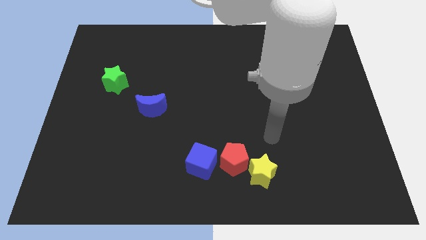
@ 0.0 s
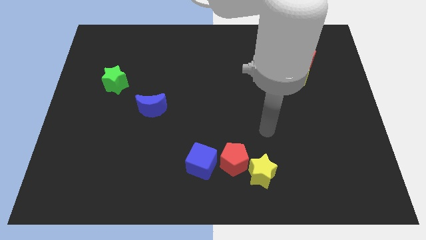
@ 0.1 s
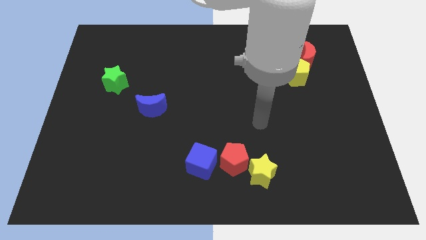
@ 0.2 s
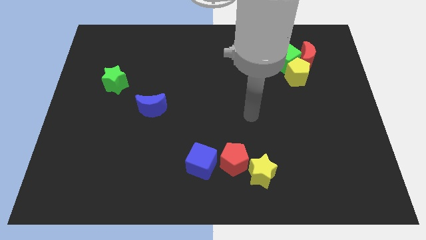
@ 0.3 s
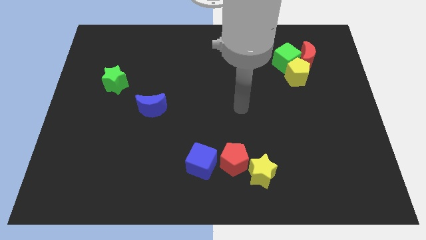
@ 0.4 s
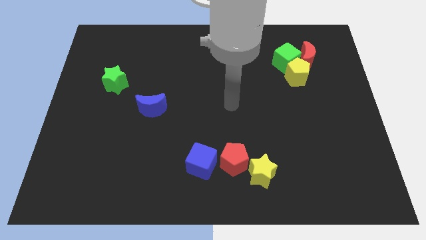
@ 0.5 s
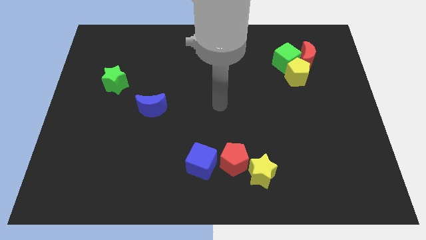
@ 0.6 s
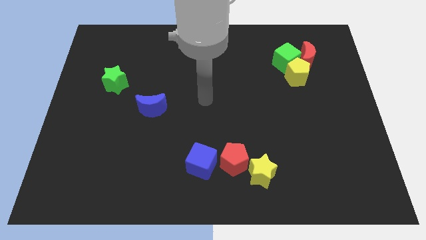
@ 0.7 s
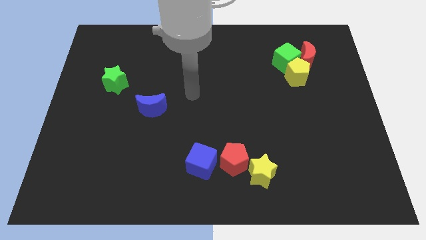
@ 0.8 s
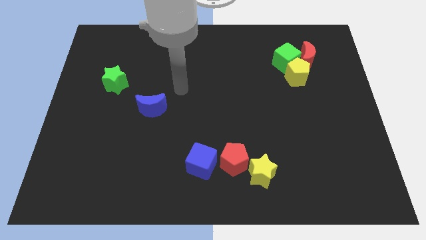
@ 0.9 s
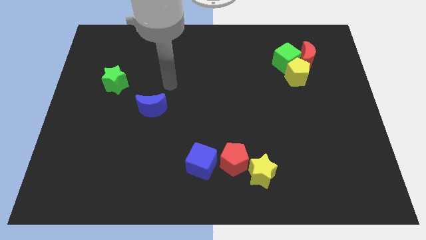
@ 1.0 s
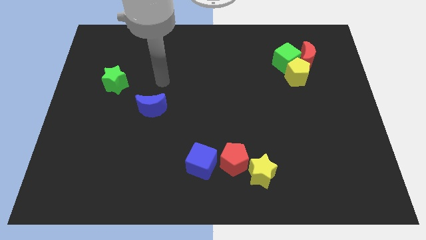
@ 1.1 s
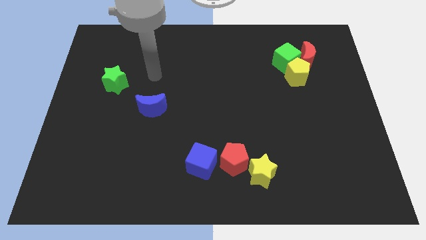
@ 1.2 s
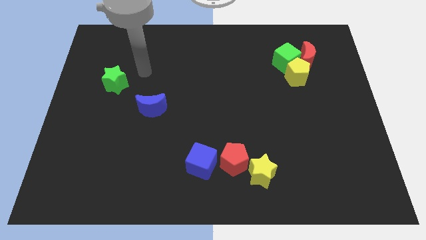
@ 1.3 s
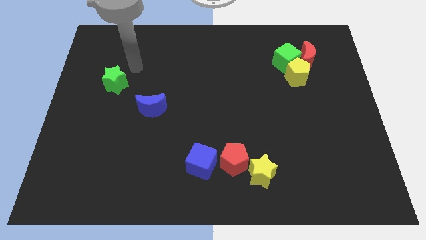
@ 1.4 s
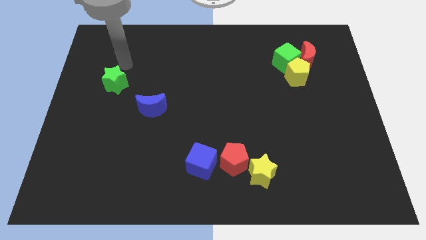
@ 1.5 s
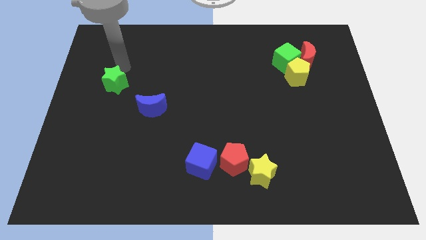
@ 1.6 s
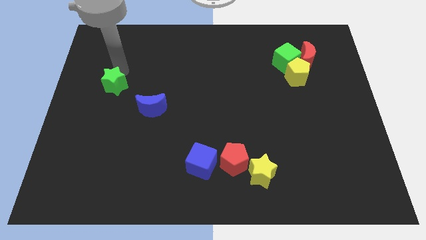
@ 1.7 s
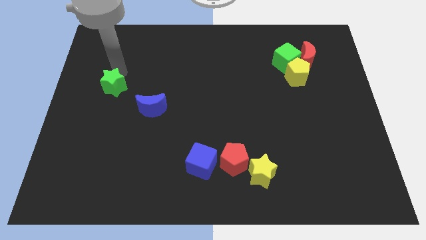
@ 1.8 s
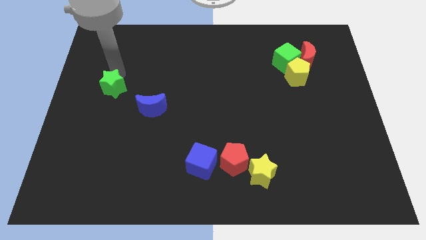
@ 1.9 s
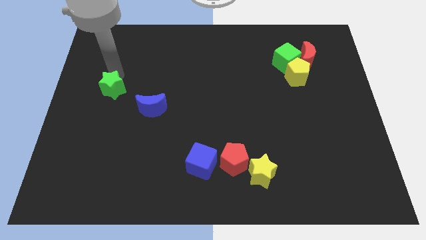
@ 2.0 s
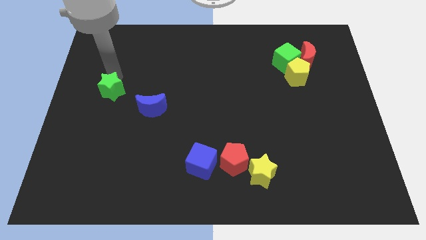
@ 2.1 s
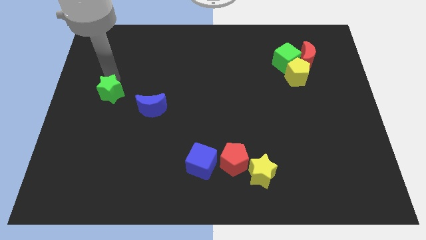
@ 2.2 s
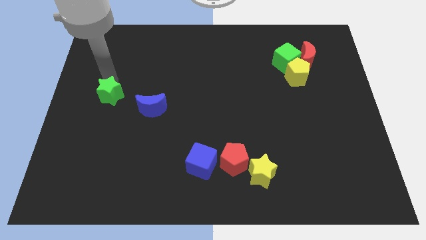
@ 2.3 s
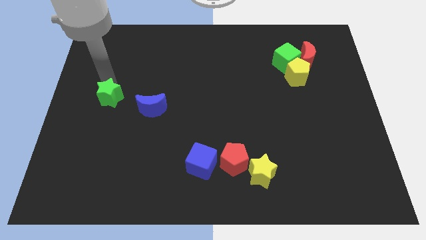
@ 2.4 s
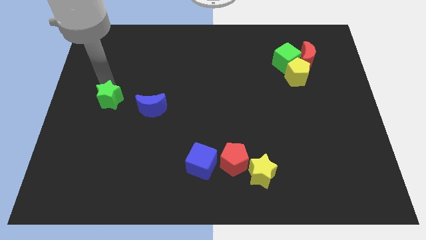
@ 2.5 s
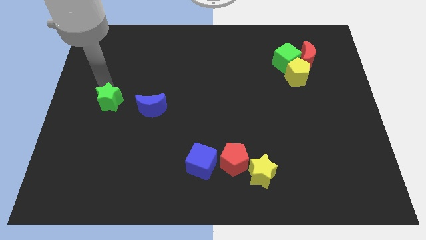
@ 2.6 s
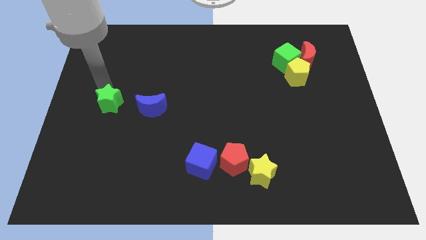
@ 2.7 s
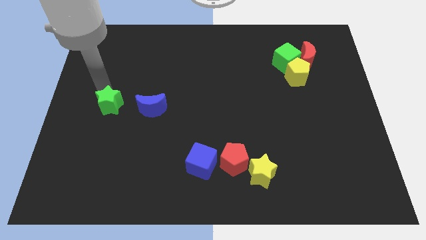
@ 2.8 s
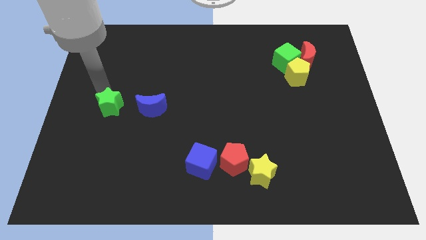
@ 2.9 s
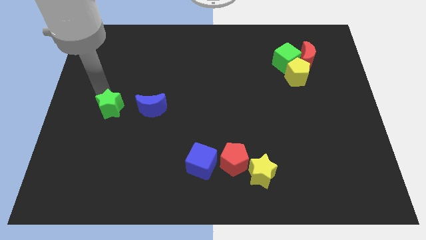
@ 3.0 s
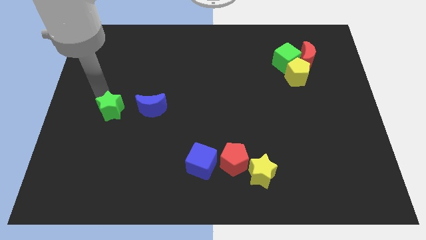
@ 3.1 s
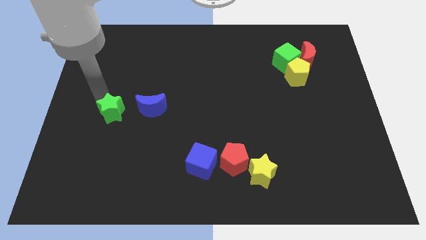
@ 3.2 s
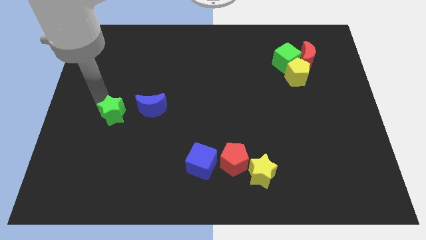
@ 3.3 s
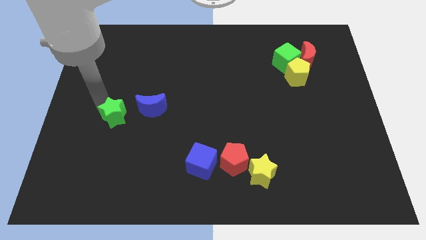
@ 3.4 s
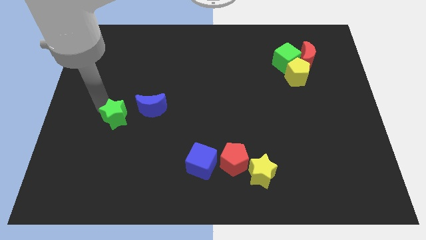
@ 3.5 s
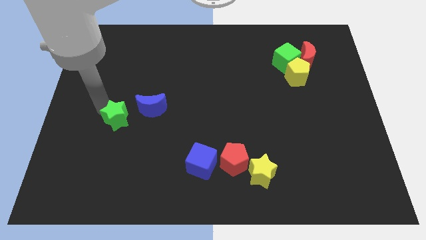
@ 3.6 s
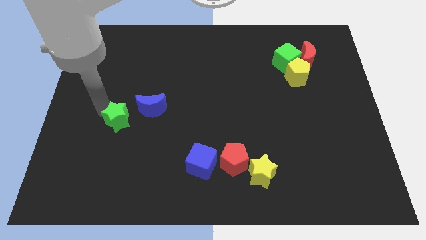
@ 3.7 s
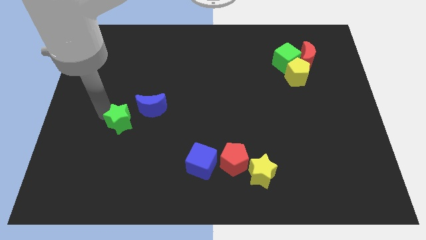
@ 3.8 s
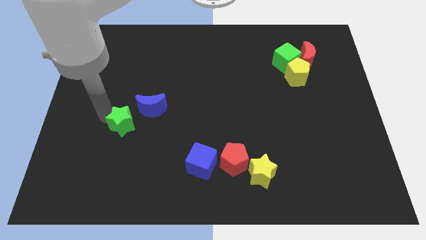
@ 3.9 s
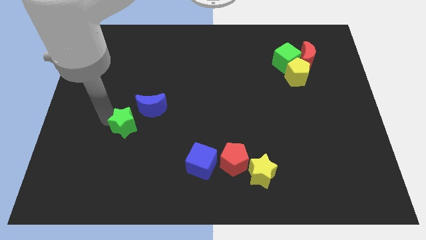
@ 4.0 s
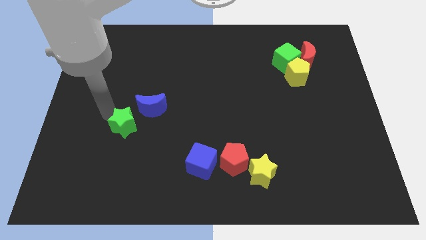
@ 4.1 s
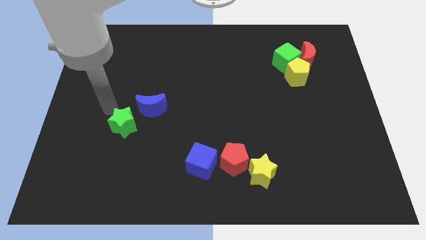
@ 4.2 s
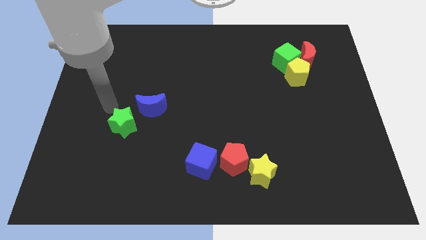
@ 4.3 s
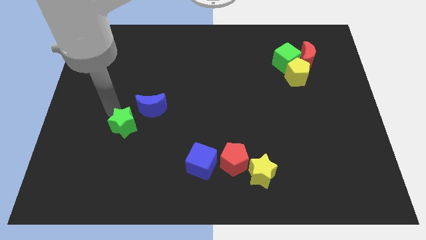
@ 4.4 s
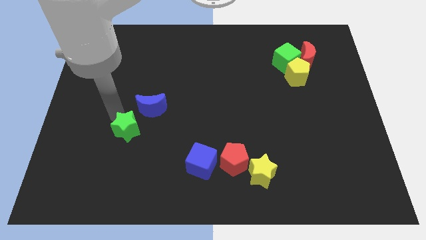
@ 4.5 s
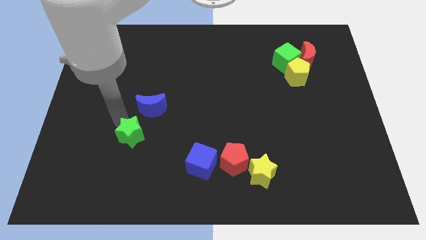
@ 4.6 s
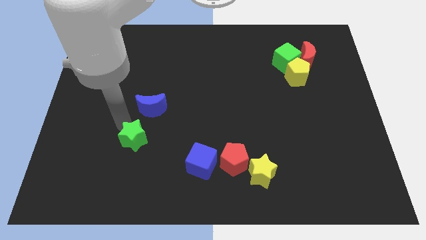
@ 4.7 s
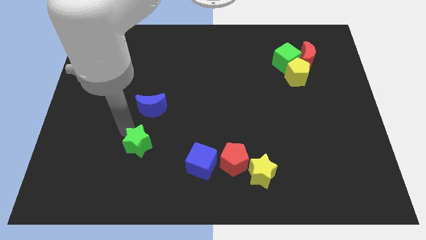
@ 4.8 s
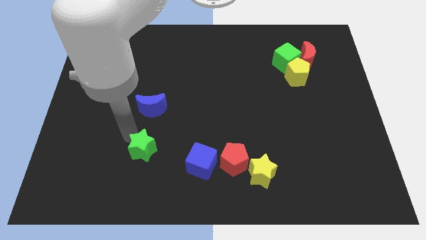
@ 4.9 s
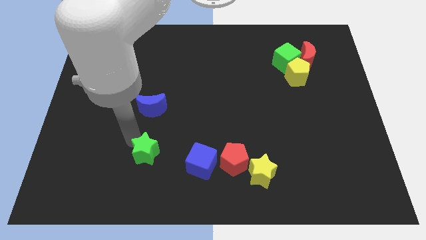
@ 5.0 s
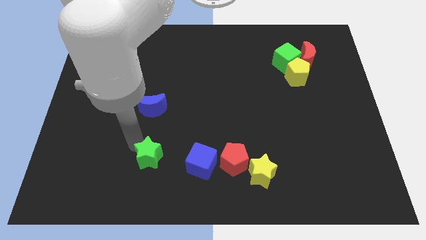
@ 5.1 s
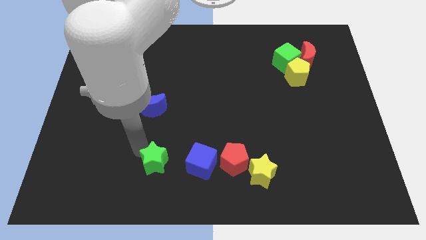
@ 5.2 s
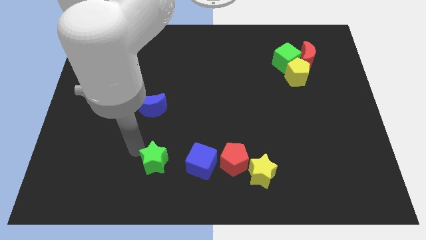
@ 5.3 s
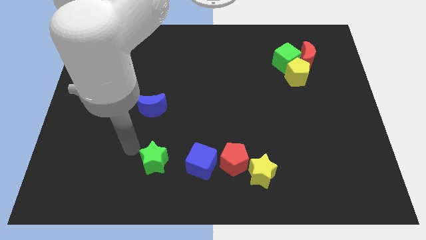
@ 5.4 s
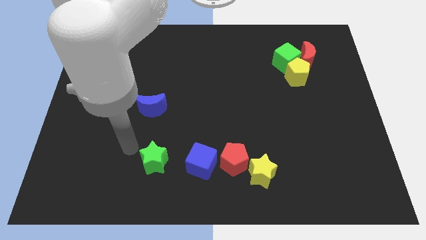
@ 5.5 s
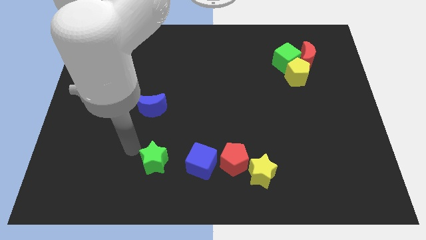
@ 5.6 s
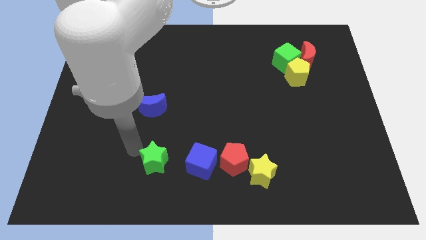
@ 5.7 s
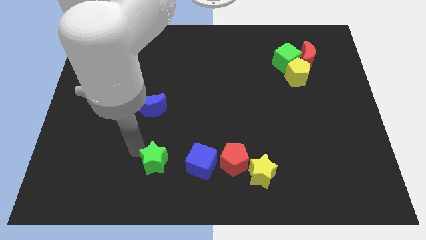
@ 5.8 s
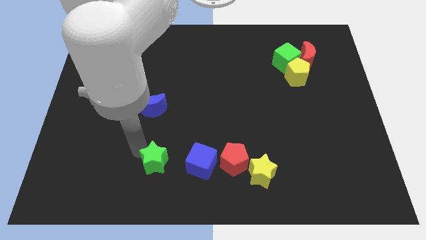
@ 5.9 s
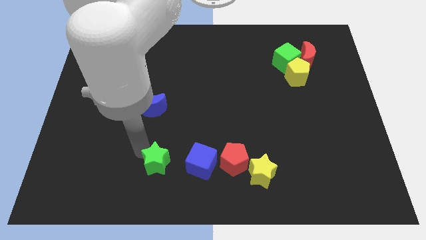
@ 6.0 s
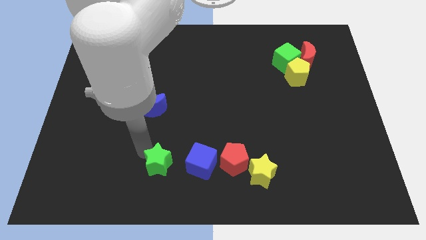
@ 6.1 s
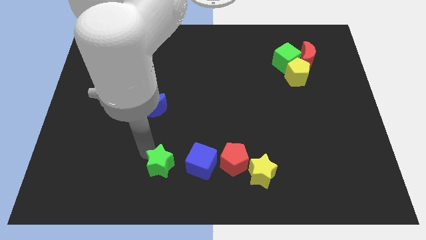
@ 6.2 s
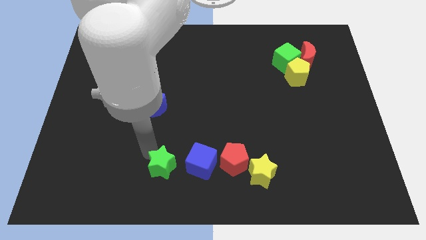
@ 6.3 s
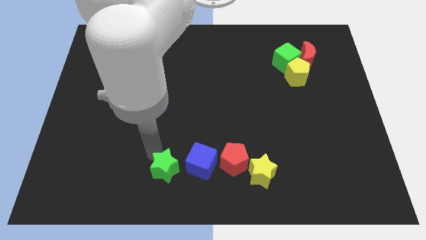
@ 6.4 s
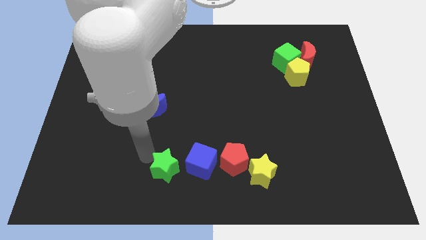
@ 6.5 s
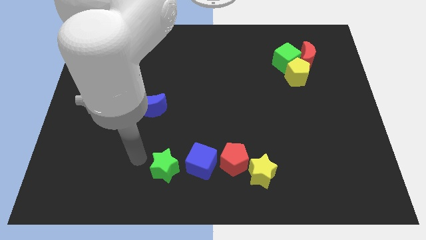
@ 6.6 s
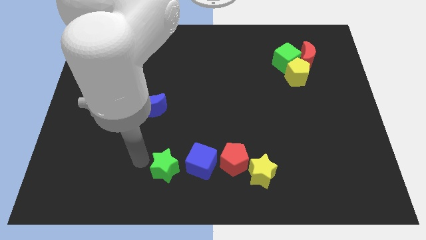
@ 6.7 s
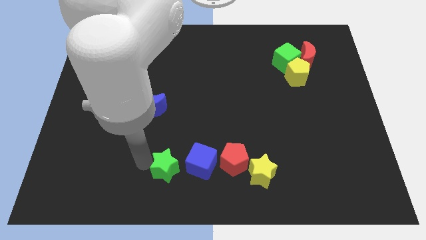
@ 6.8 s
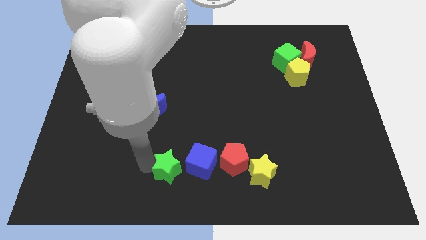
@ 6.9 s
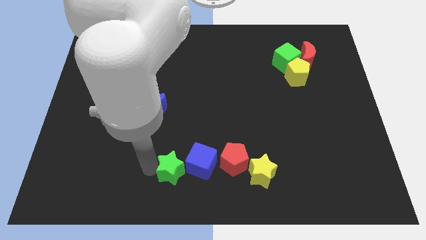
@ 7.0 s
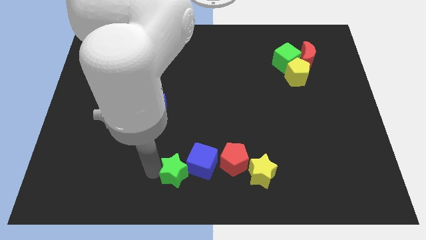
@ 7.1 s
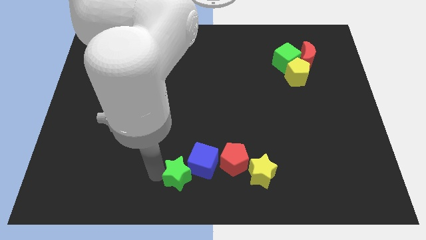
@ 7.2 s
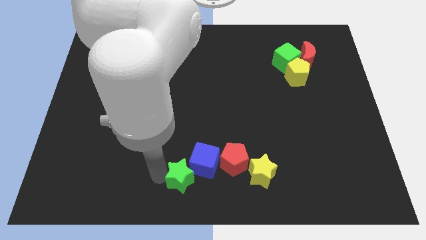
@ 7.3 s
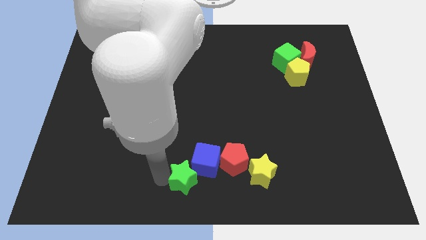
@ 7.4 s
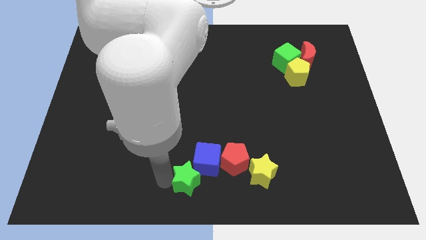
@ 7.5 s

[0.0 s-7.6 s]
slide the green star diagonally down and to the left of the red pentagon
